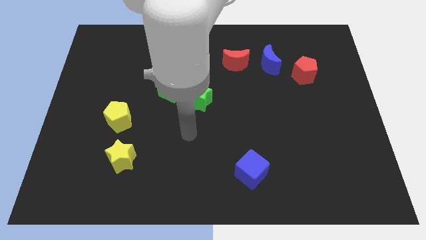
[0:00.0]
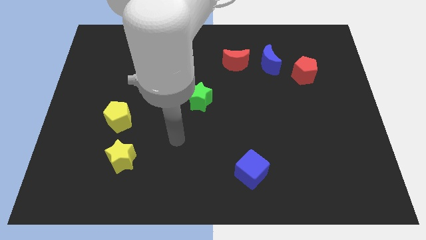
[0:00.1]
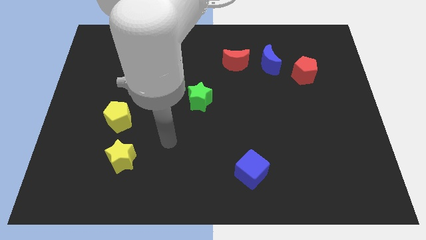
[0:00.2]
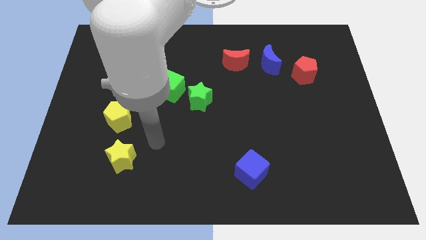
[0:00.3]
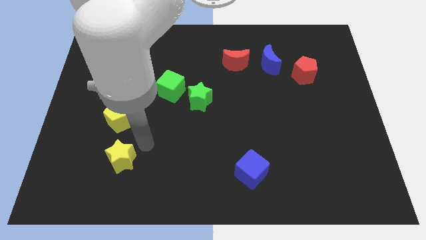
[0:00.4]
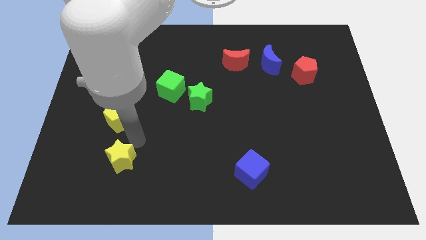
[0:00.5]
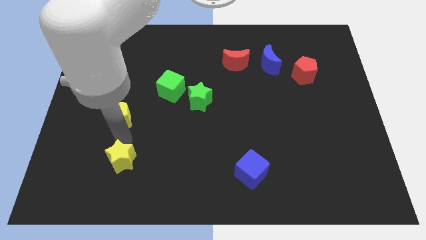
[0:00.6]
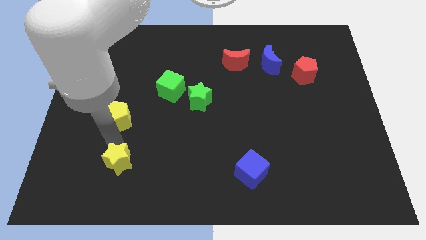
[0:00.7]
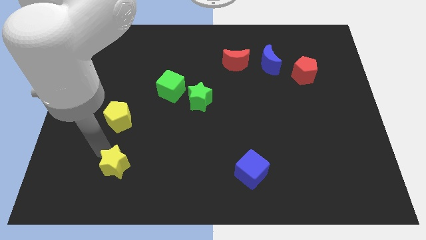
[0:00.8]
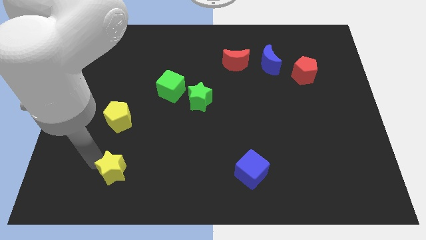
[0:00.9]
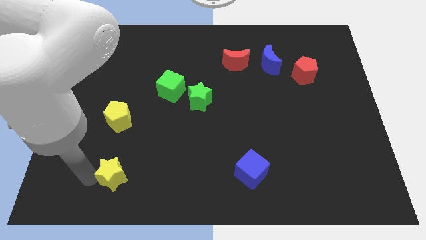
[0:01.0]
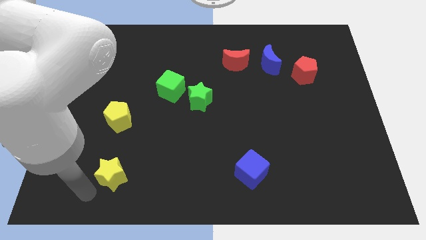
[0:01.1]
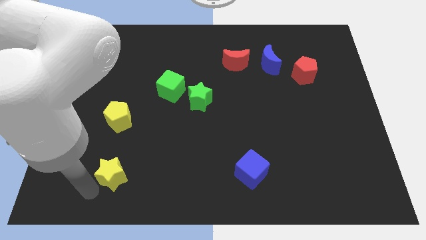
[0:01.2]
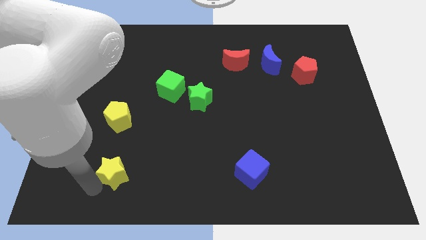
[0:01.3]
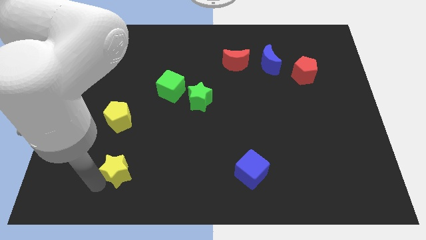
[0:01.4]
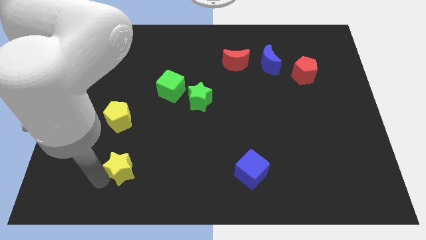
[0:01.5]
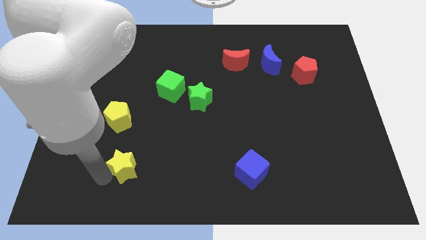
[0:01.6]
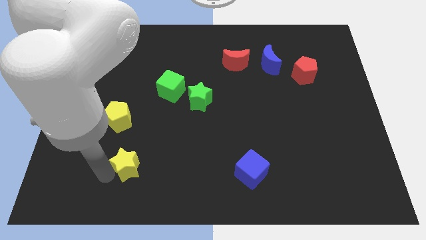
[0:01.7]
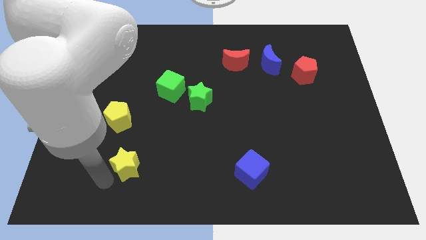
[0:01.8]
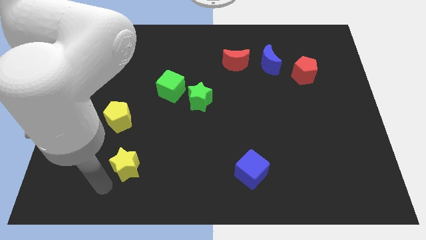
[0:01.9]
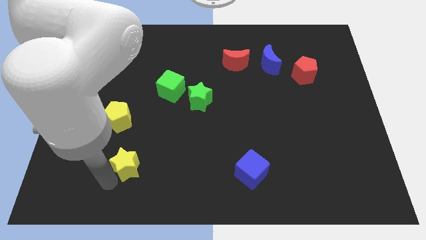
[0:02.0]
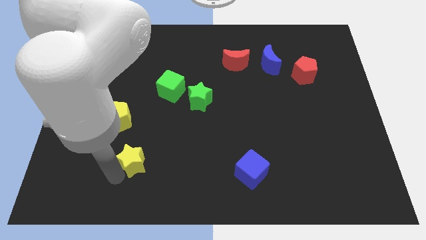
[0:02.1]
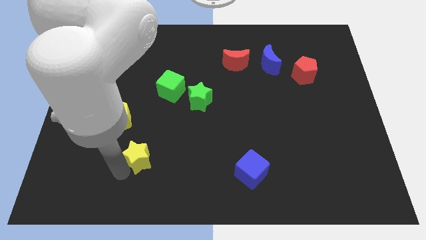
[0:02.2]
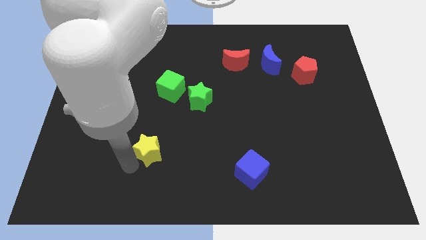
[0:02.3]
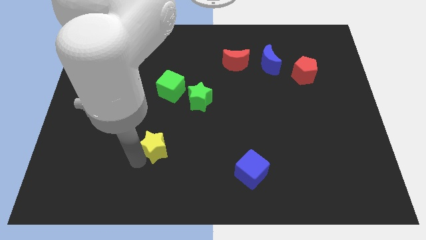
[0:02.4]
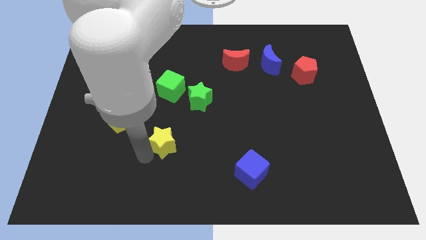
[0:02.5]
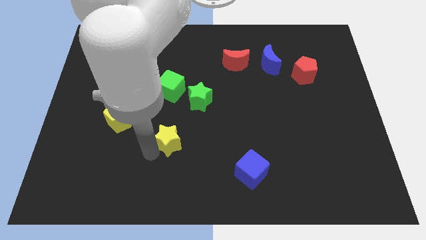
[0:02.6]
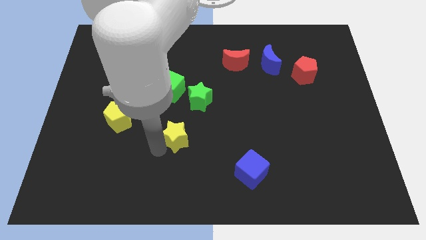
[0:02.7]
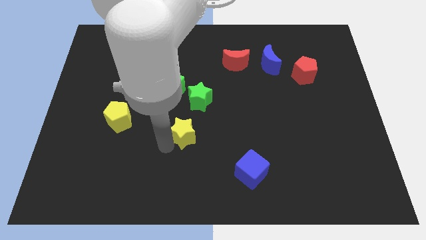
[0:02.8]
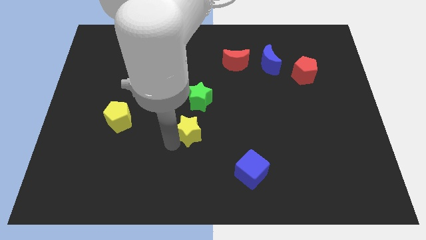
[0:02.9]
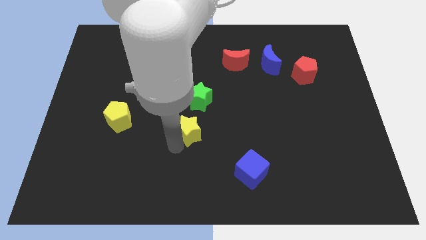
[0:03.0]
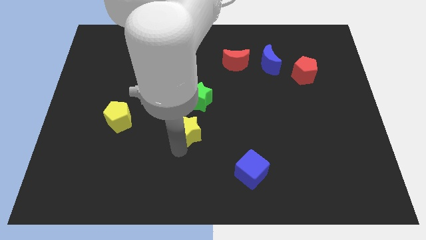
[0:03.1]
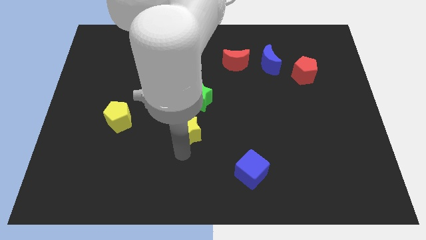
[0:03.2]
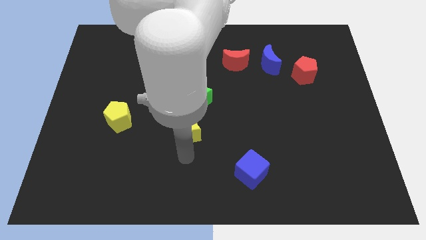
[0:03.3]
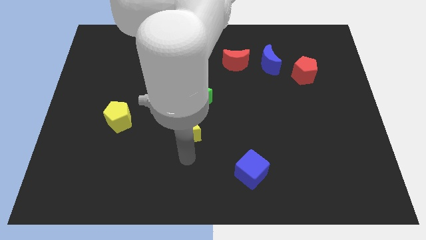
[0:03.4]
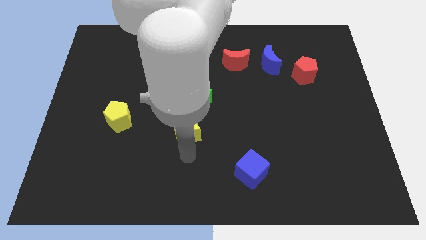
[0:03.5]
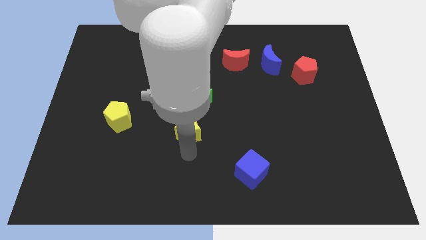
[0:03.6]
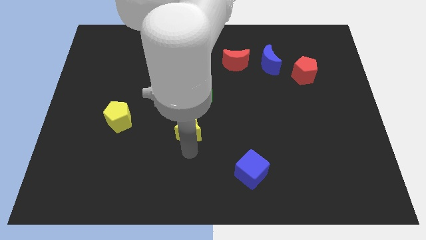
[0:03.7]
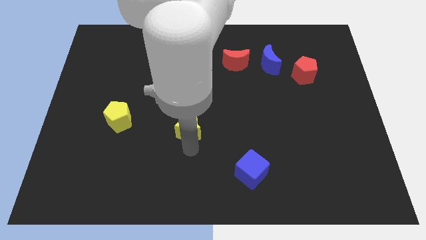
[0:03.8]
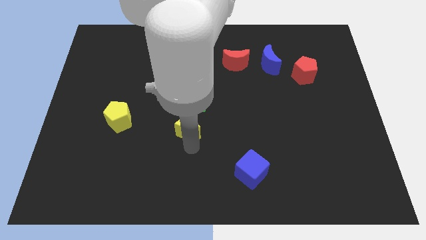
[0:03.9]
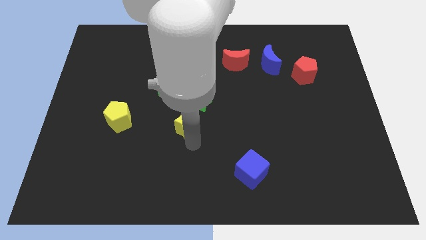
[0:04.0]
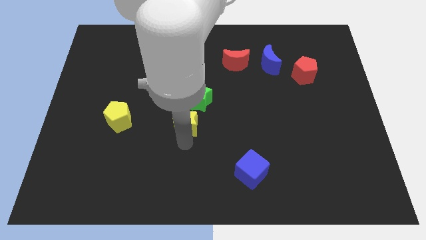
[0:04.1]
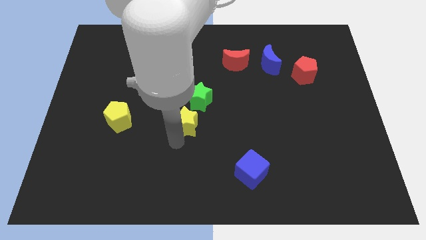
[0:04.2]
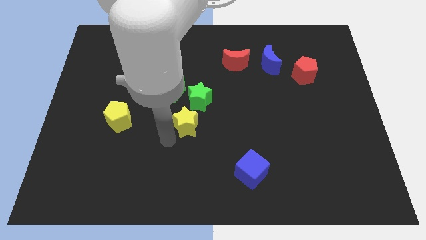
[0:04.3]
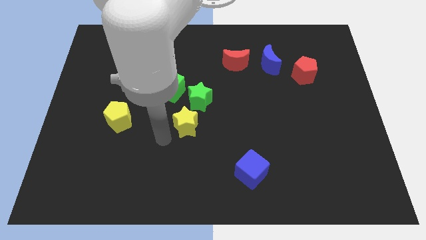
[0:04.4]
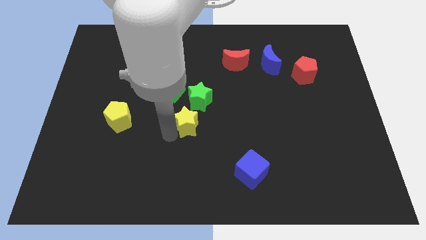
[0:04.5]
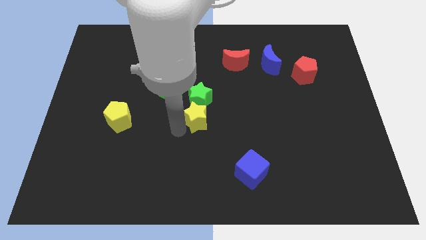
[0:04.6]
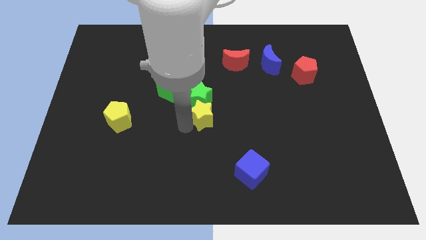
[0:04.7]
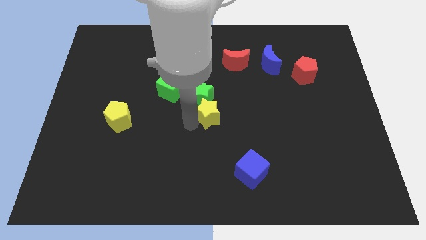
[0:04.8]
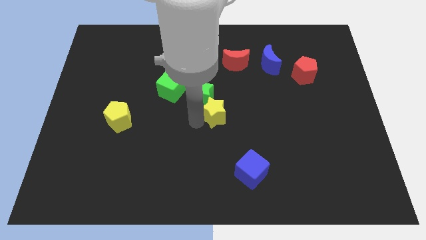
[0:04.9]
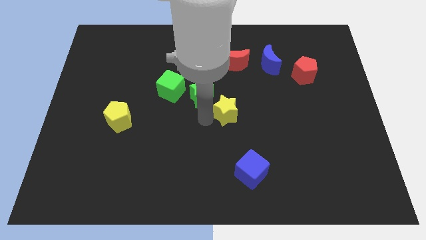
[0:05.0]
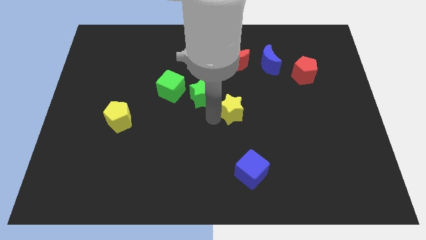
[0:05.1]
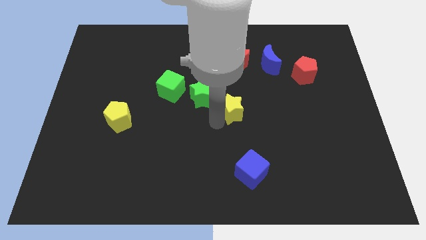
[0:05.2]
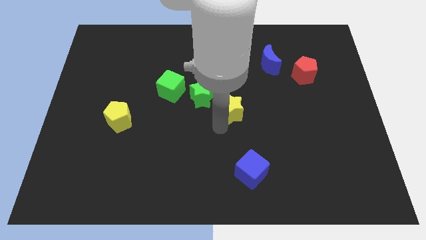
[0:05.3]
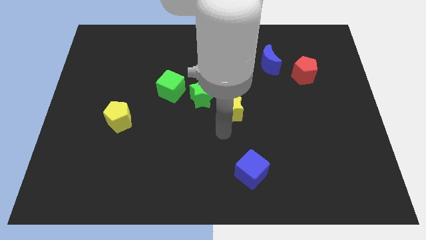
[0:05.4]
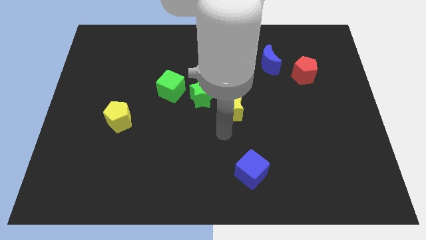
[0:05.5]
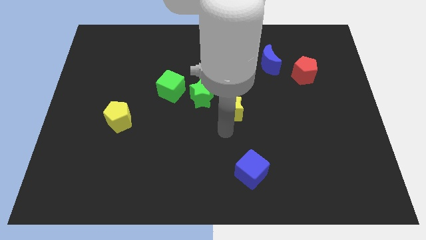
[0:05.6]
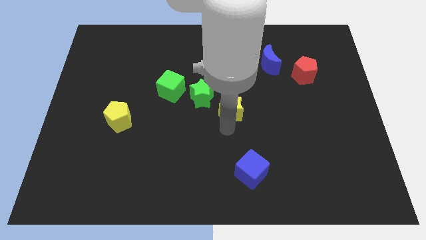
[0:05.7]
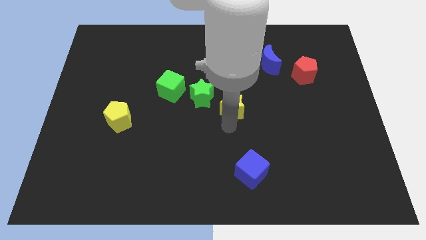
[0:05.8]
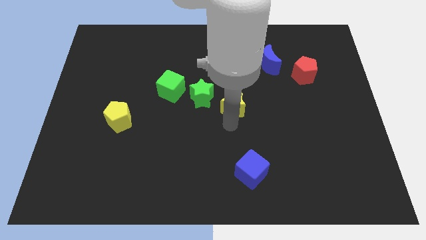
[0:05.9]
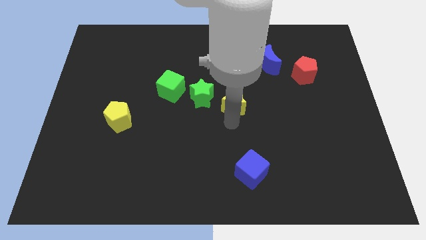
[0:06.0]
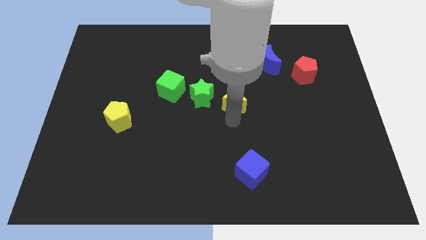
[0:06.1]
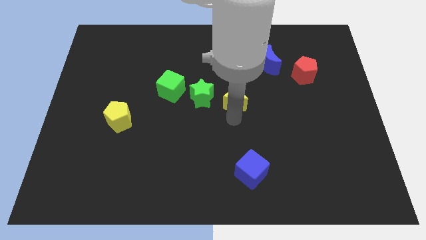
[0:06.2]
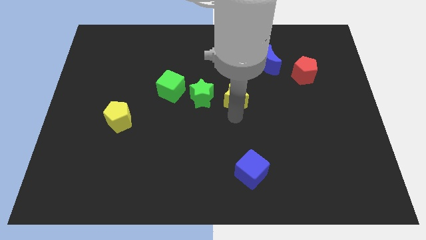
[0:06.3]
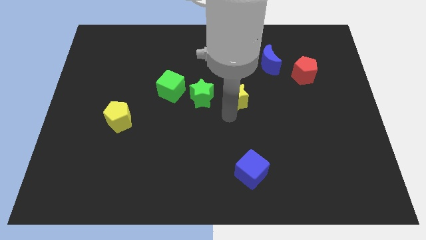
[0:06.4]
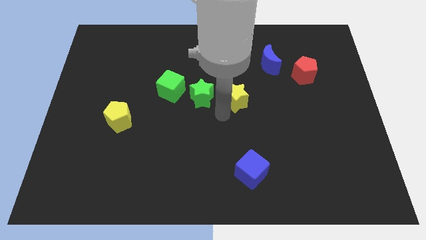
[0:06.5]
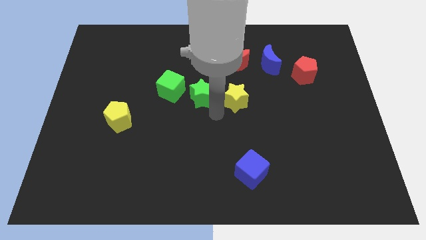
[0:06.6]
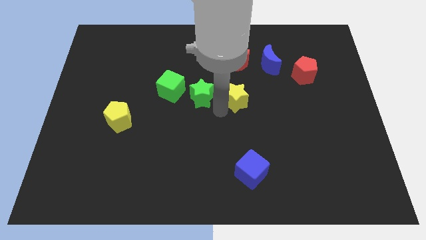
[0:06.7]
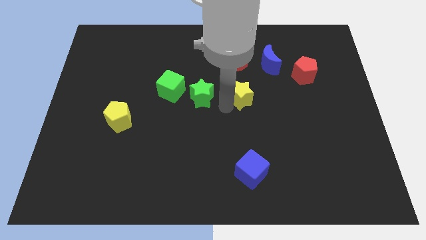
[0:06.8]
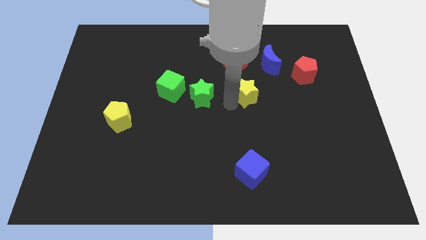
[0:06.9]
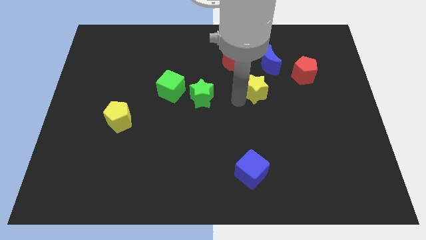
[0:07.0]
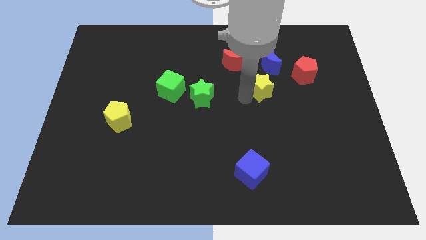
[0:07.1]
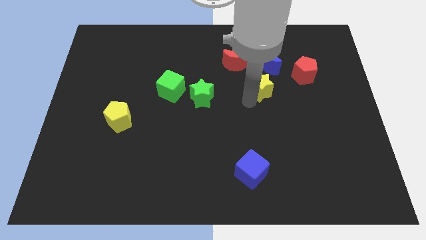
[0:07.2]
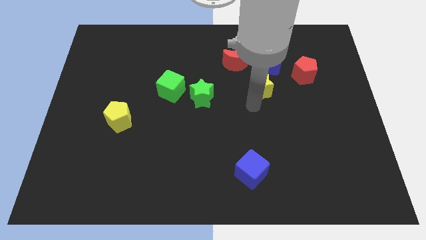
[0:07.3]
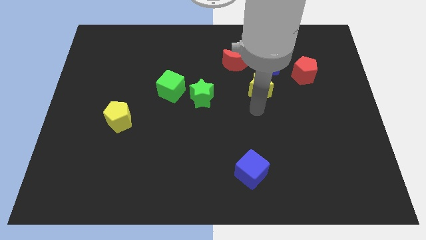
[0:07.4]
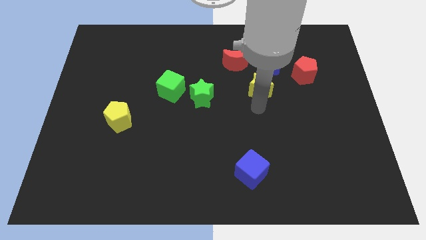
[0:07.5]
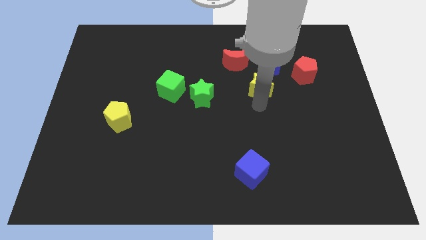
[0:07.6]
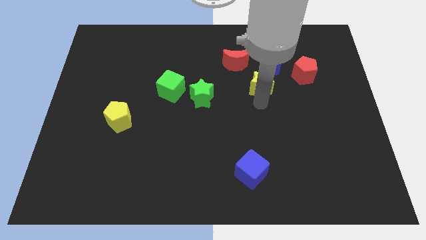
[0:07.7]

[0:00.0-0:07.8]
push the yellow star to the left side of the red pentagon
